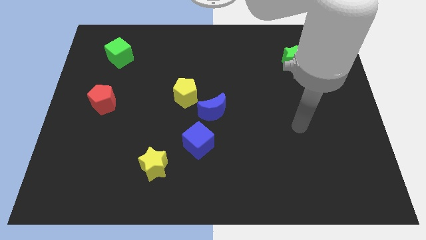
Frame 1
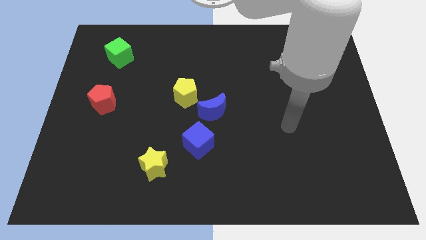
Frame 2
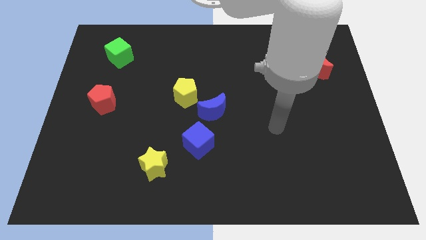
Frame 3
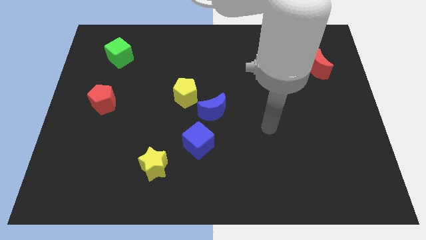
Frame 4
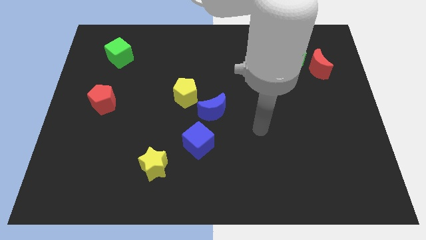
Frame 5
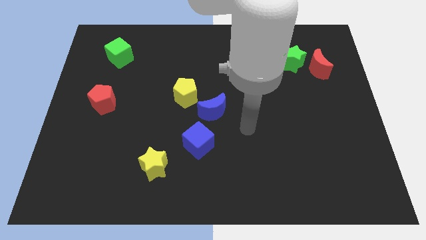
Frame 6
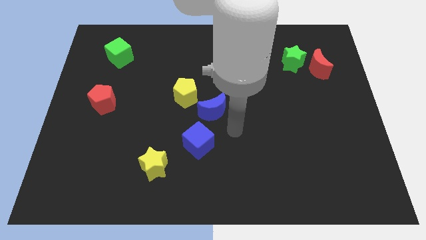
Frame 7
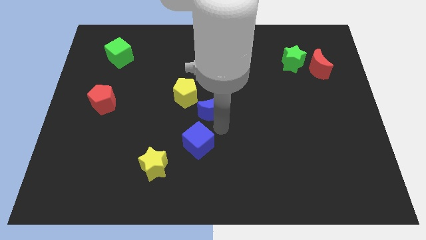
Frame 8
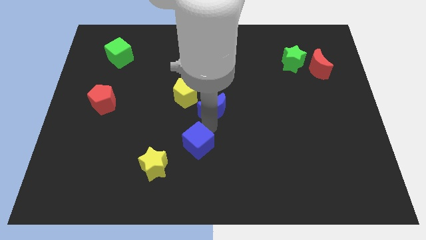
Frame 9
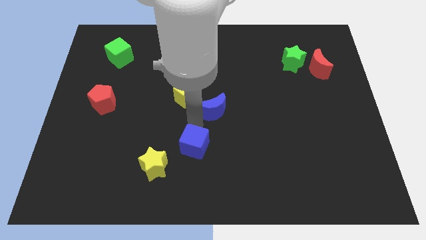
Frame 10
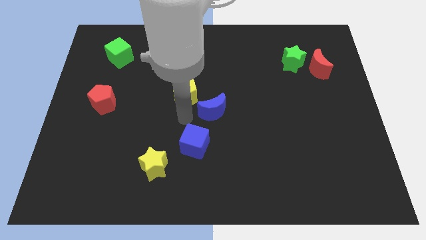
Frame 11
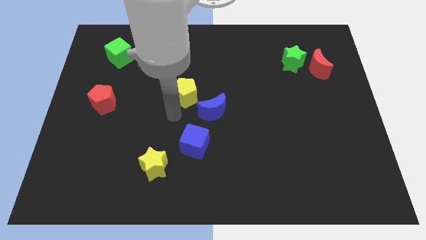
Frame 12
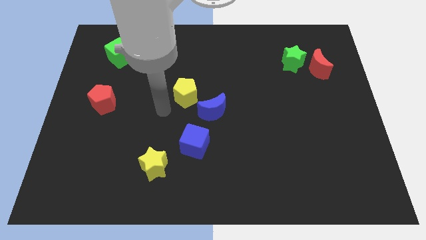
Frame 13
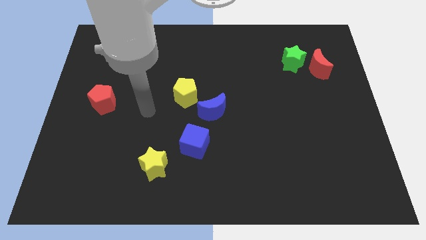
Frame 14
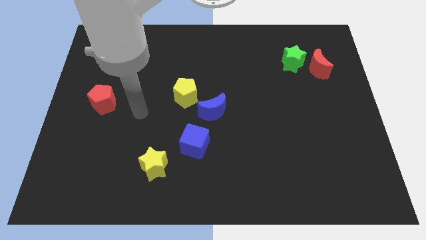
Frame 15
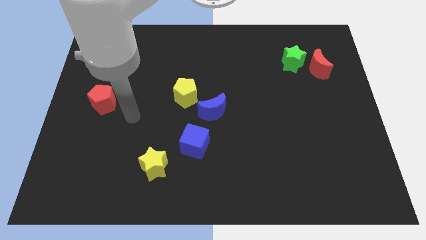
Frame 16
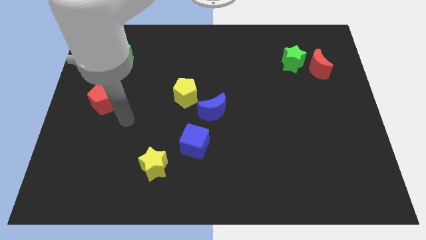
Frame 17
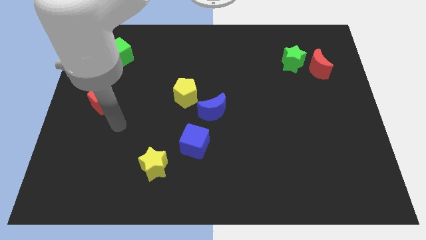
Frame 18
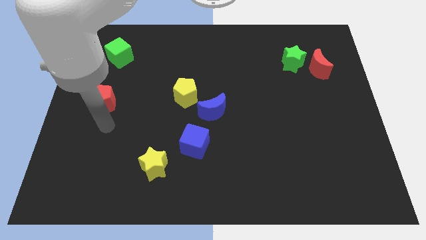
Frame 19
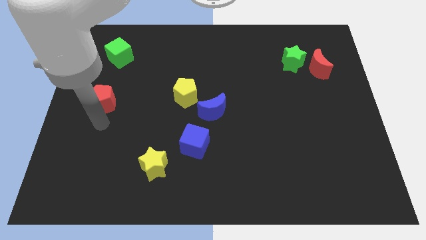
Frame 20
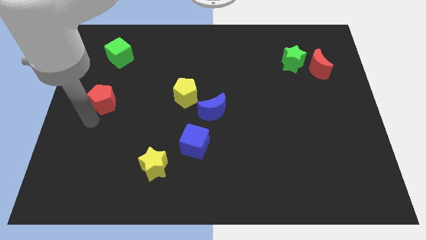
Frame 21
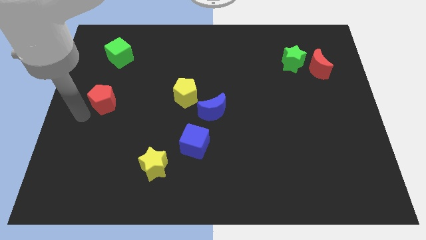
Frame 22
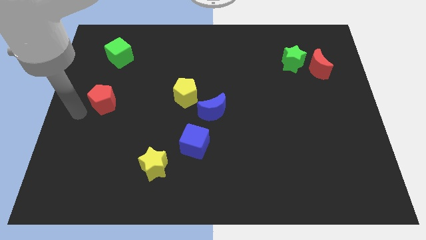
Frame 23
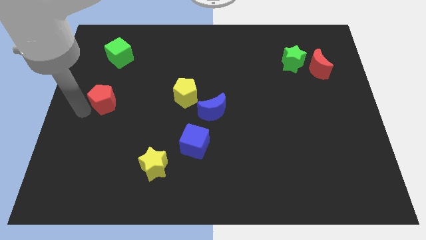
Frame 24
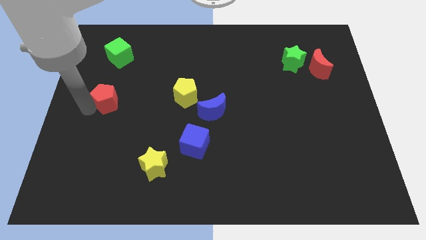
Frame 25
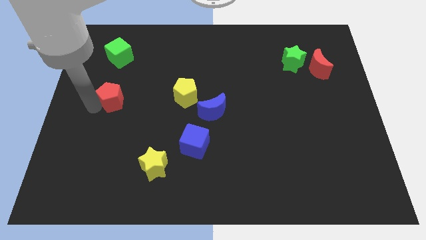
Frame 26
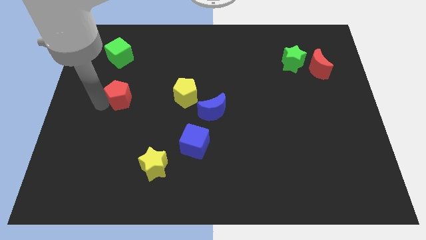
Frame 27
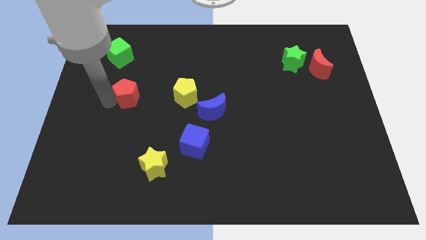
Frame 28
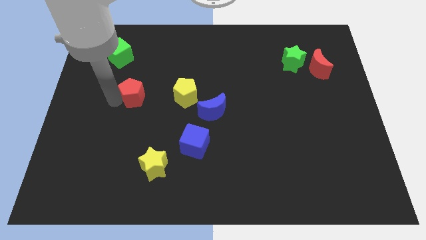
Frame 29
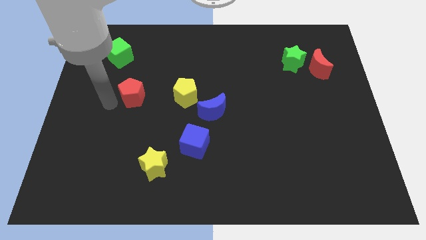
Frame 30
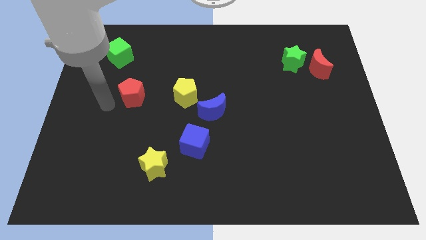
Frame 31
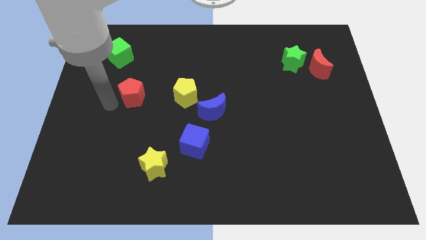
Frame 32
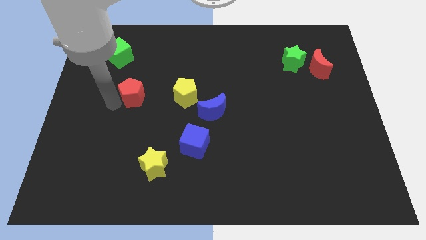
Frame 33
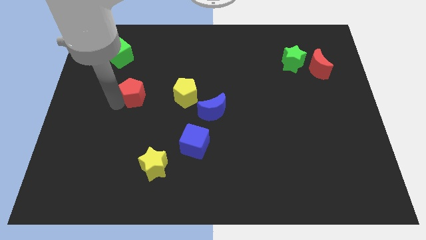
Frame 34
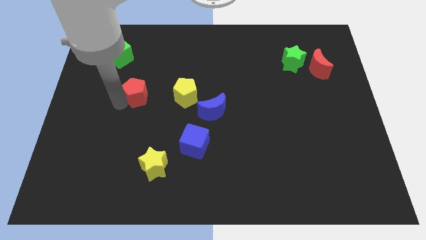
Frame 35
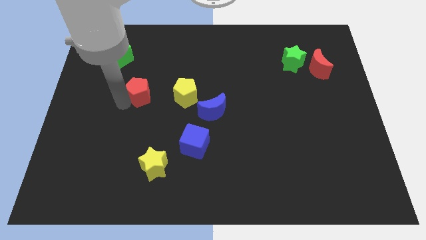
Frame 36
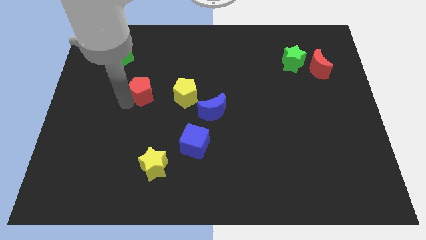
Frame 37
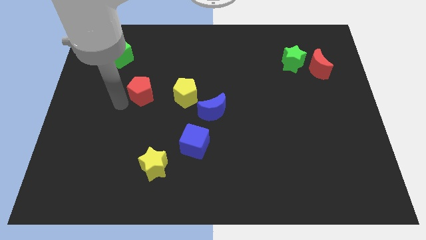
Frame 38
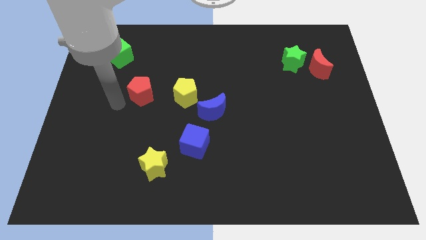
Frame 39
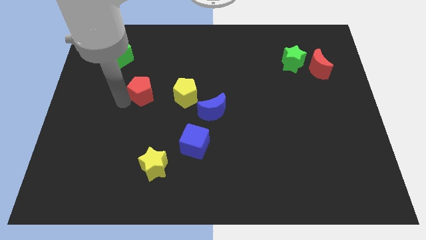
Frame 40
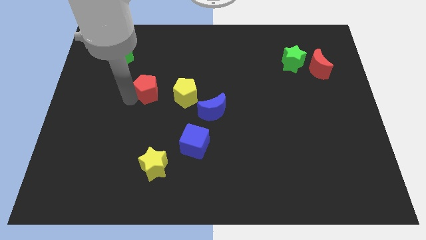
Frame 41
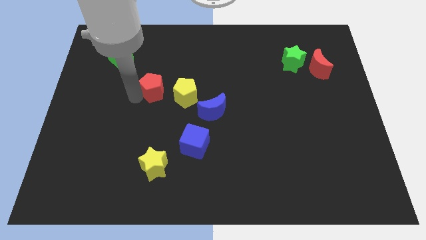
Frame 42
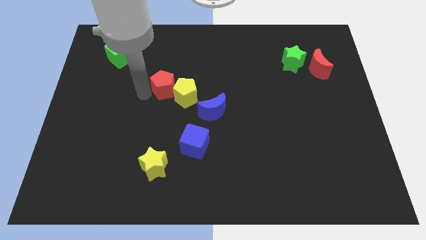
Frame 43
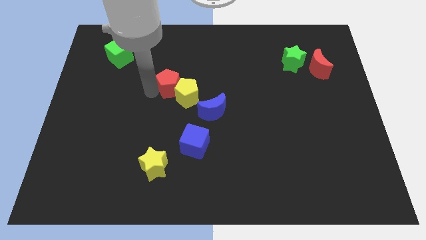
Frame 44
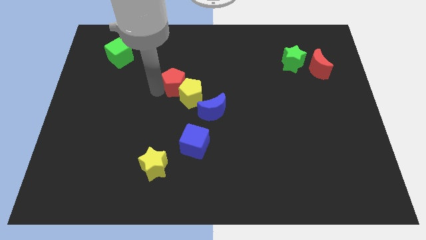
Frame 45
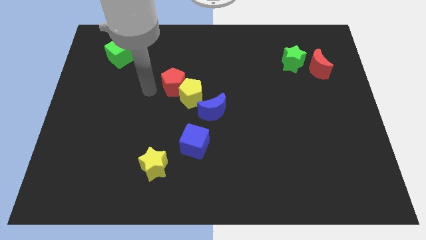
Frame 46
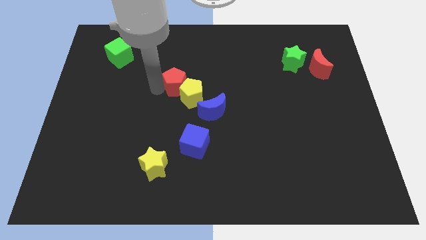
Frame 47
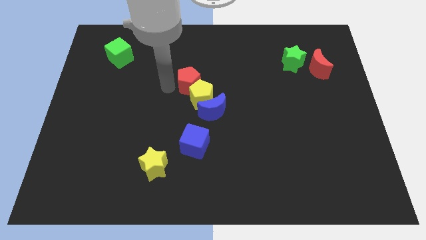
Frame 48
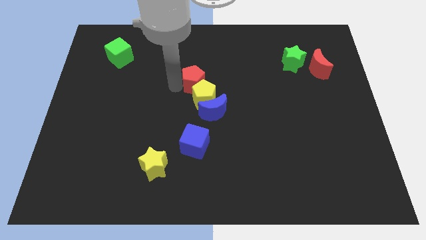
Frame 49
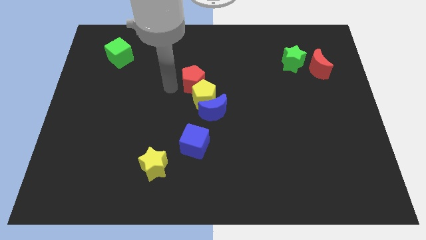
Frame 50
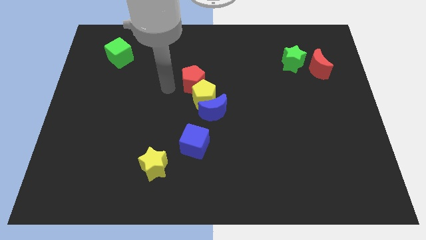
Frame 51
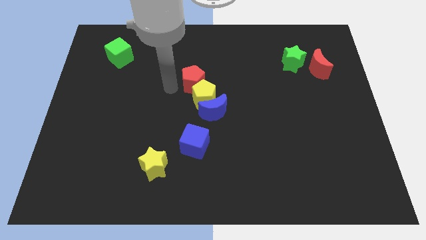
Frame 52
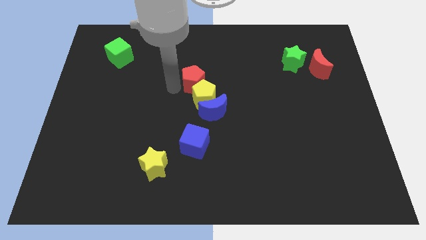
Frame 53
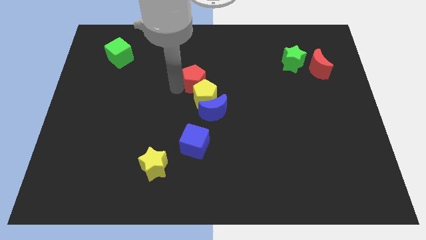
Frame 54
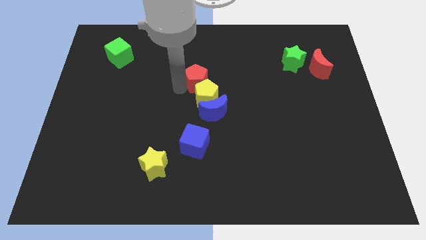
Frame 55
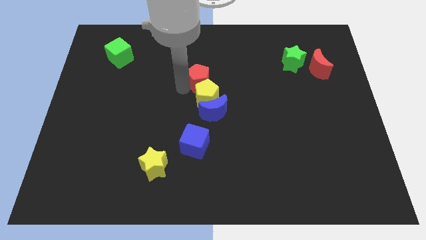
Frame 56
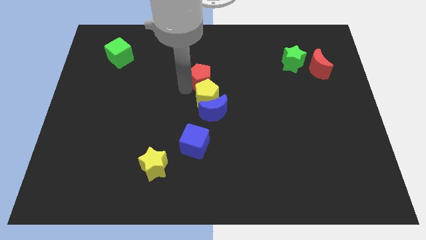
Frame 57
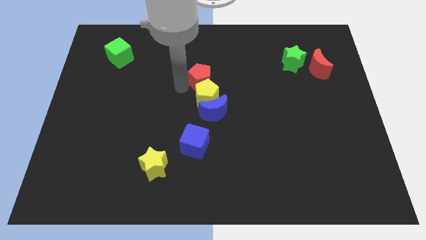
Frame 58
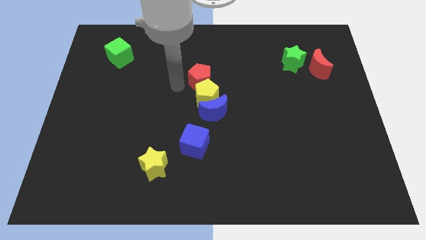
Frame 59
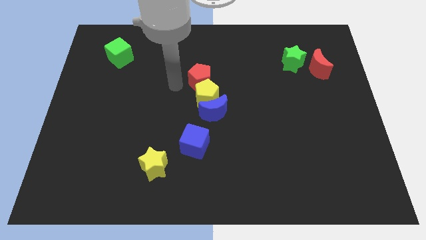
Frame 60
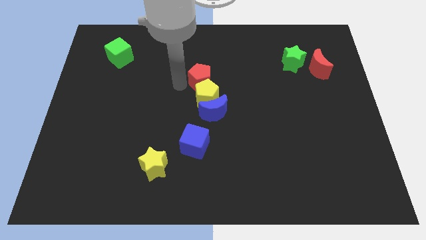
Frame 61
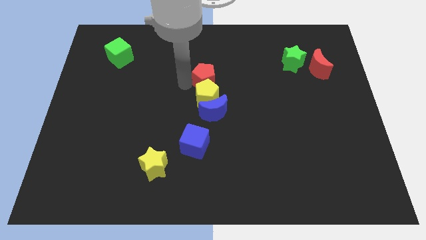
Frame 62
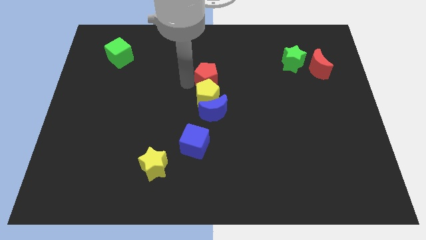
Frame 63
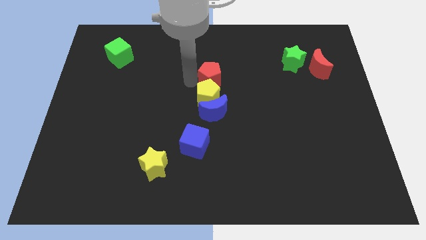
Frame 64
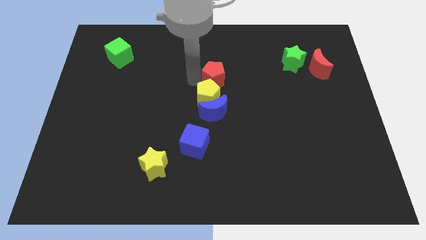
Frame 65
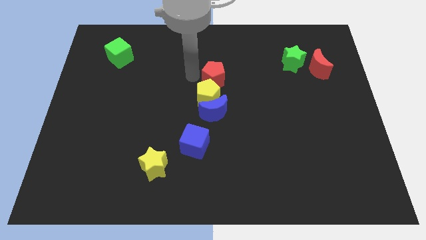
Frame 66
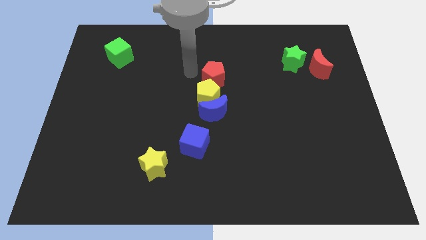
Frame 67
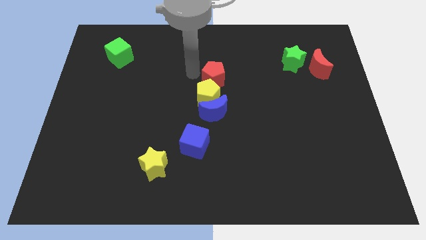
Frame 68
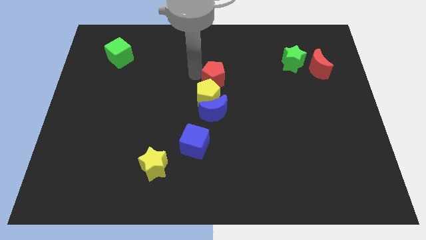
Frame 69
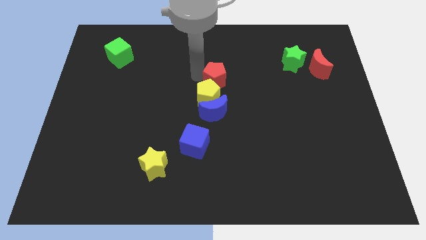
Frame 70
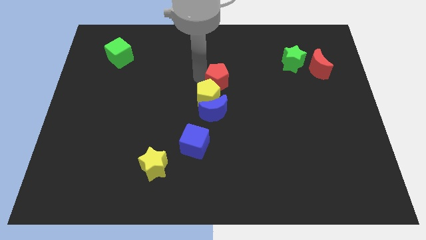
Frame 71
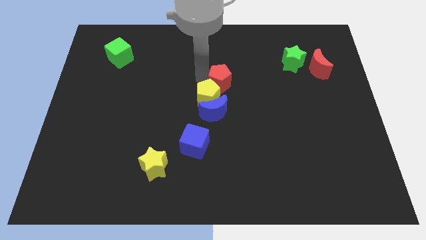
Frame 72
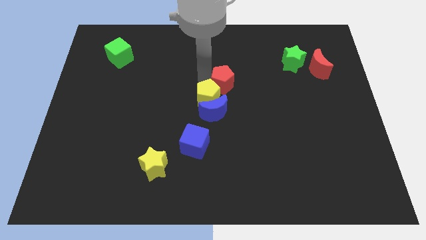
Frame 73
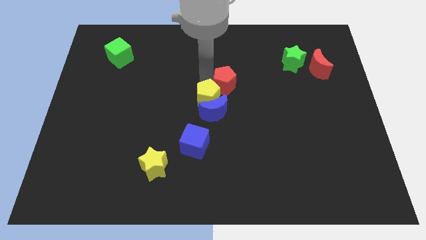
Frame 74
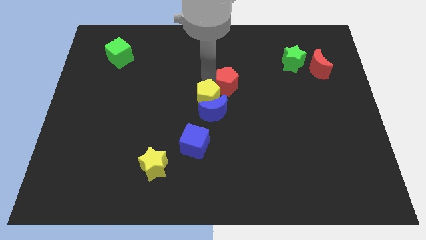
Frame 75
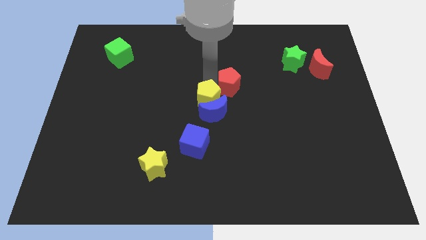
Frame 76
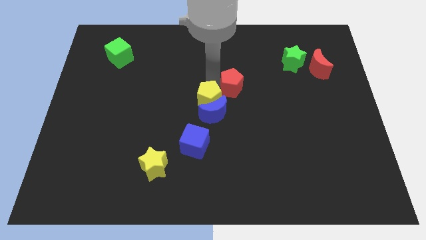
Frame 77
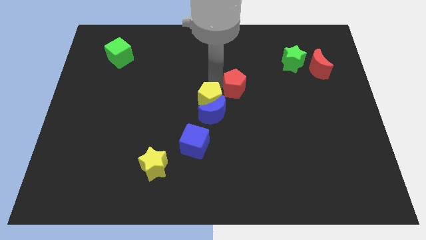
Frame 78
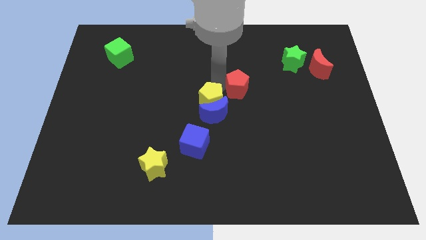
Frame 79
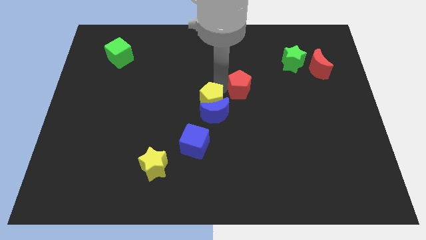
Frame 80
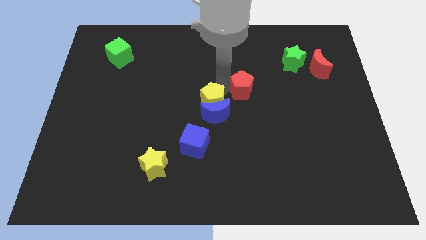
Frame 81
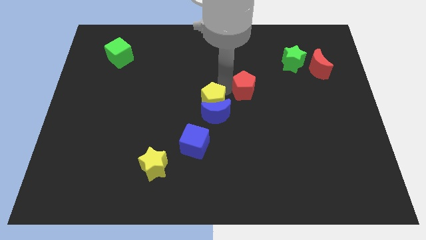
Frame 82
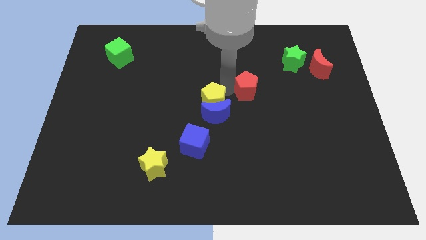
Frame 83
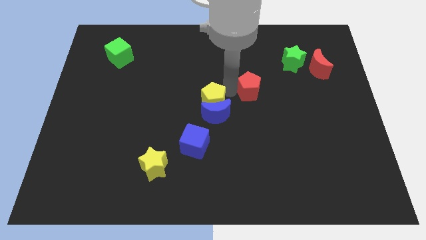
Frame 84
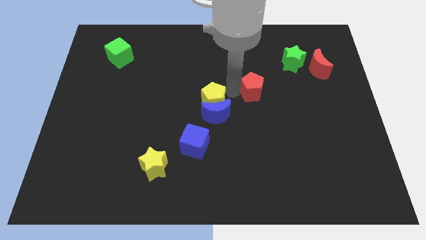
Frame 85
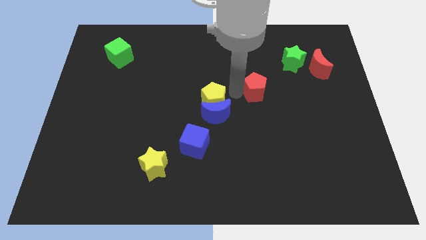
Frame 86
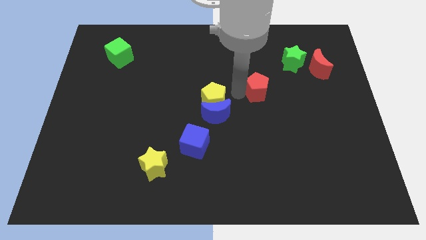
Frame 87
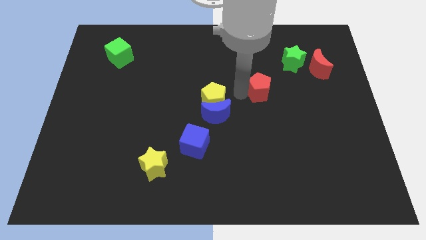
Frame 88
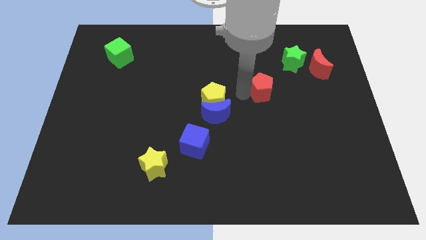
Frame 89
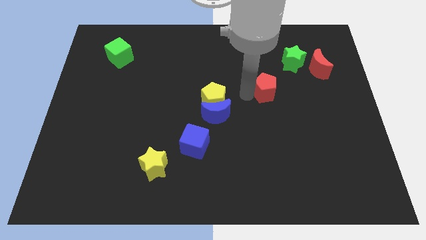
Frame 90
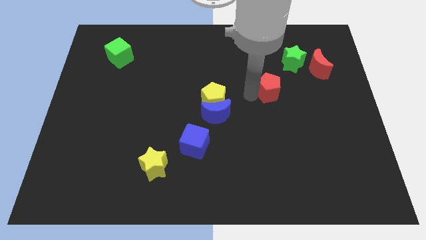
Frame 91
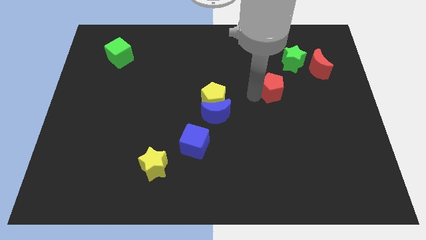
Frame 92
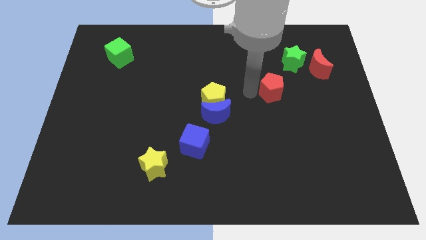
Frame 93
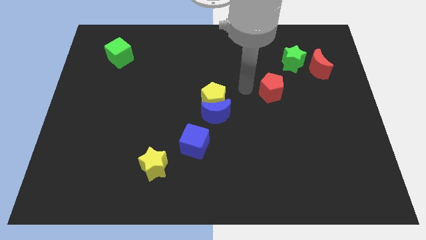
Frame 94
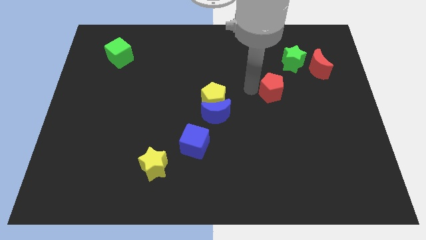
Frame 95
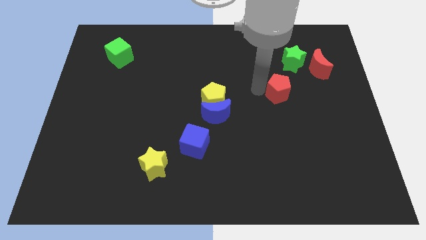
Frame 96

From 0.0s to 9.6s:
put the red pentagon below the green star
